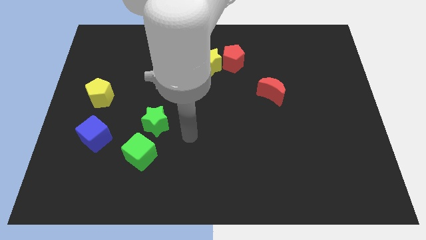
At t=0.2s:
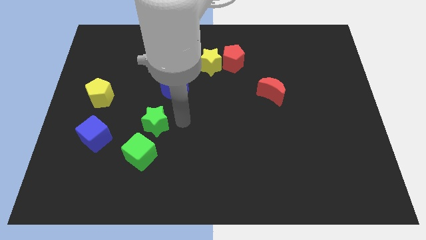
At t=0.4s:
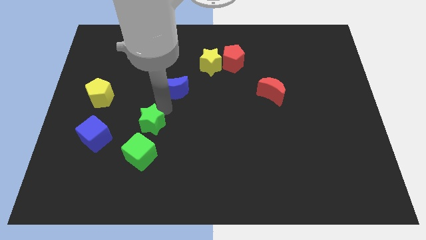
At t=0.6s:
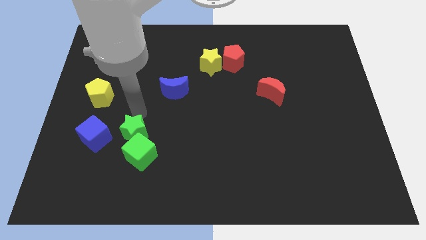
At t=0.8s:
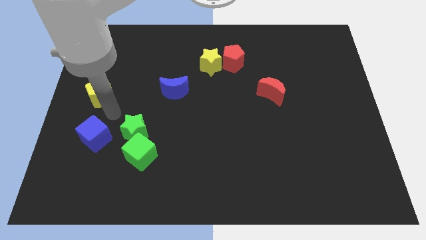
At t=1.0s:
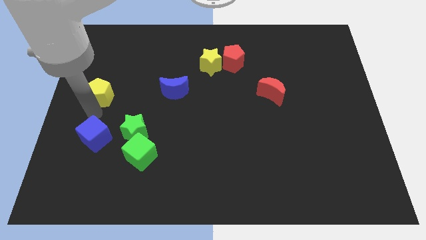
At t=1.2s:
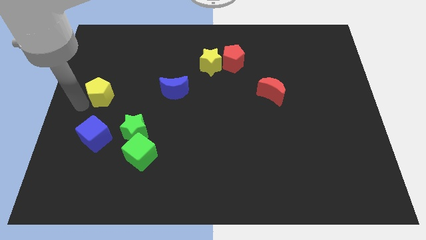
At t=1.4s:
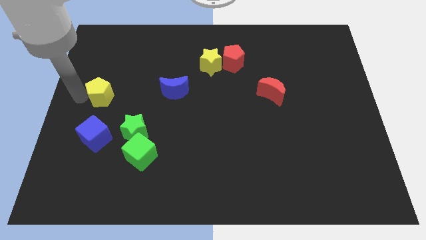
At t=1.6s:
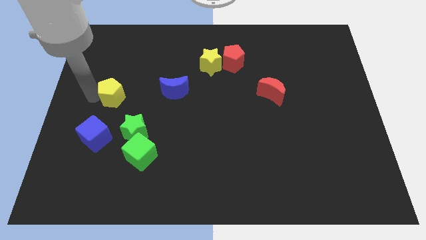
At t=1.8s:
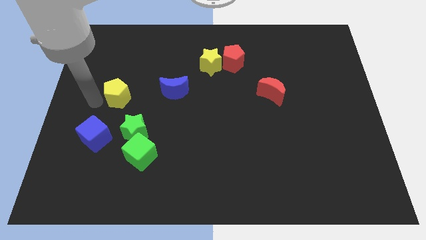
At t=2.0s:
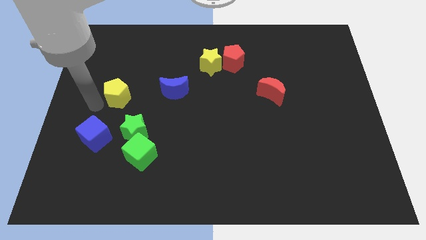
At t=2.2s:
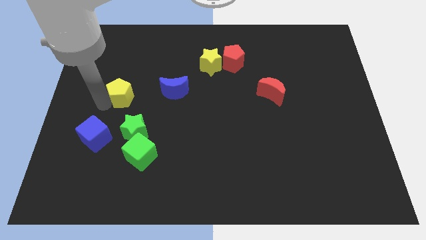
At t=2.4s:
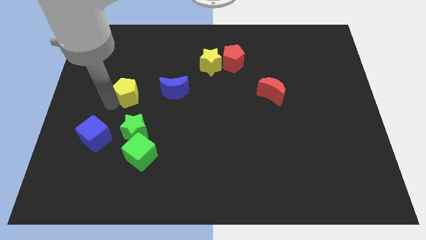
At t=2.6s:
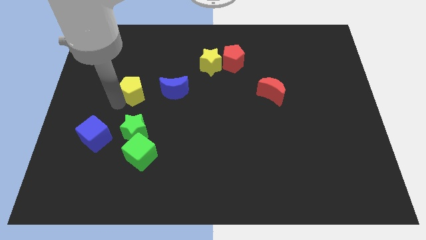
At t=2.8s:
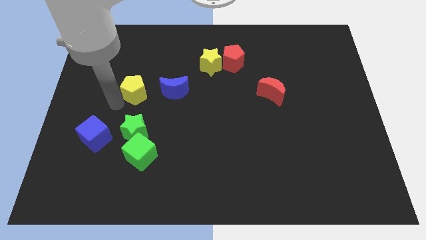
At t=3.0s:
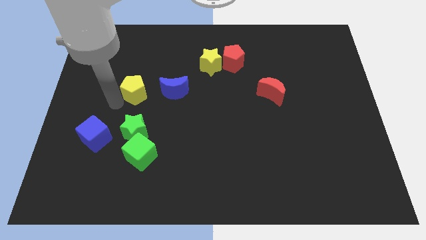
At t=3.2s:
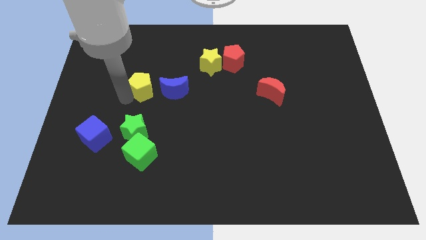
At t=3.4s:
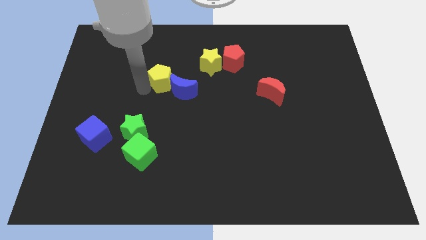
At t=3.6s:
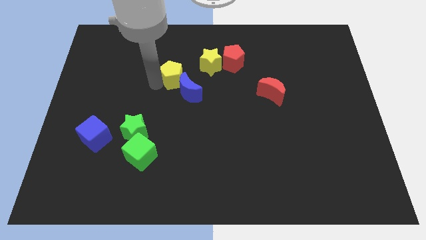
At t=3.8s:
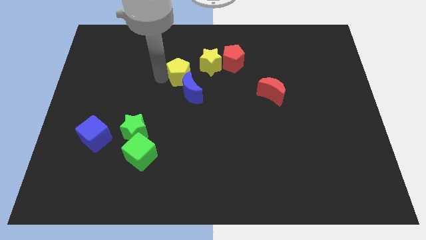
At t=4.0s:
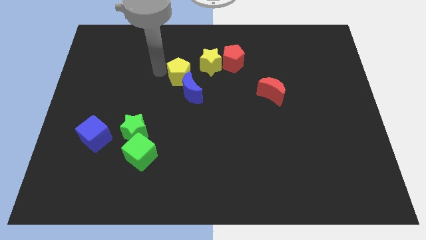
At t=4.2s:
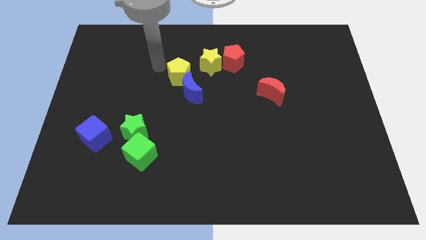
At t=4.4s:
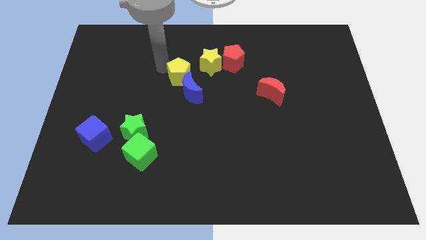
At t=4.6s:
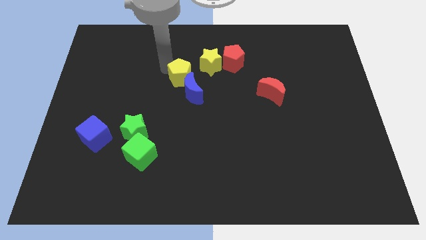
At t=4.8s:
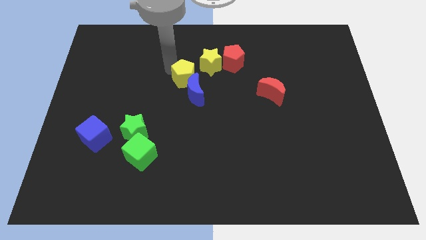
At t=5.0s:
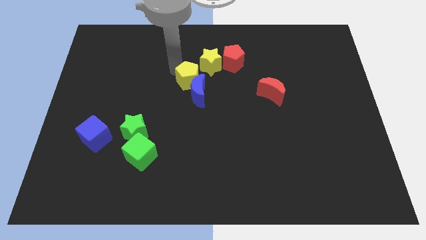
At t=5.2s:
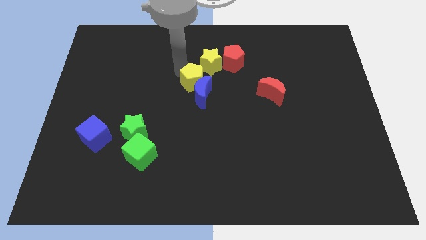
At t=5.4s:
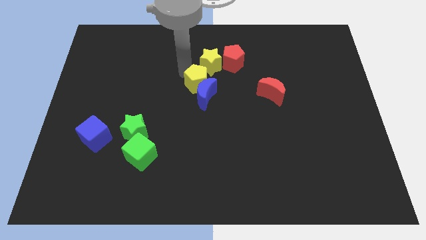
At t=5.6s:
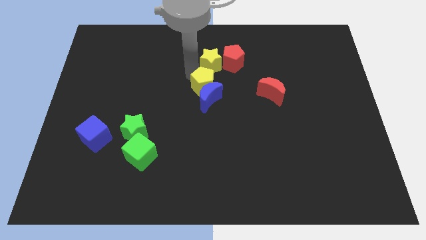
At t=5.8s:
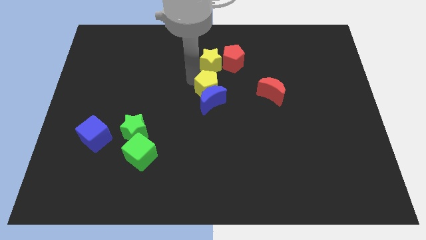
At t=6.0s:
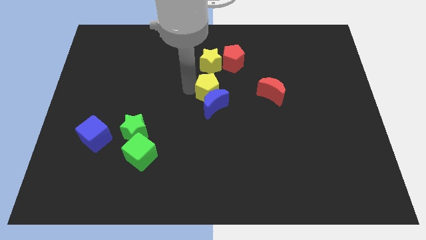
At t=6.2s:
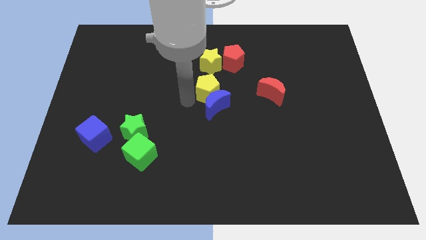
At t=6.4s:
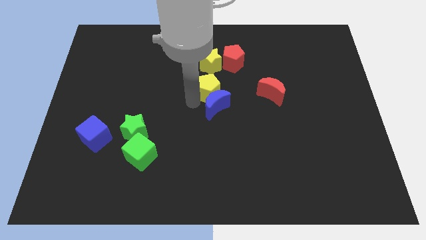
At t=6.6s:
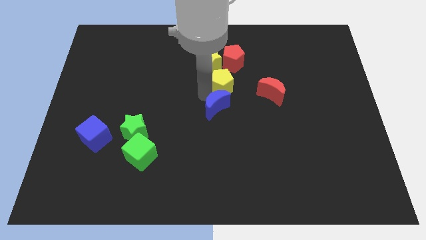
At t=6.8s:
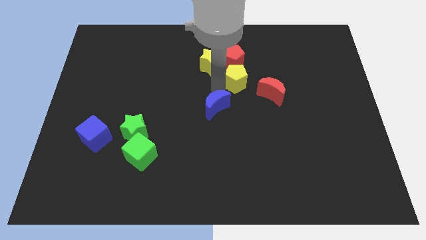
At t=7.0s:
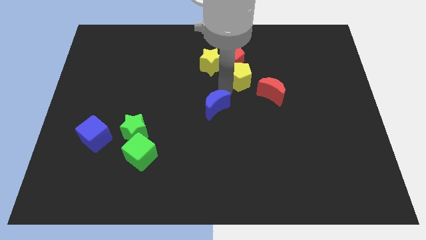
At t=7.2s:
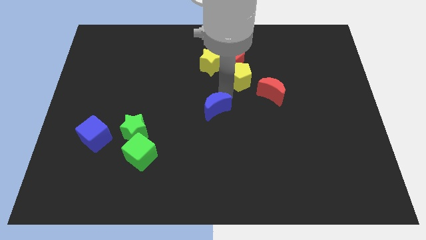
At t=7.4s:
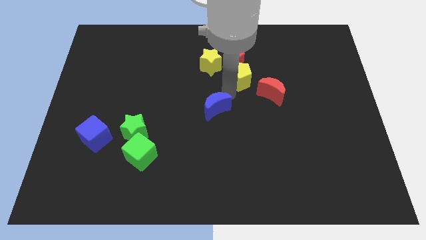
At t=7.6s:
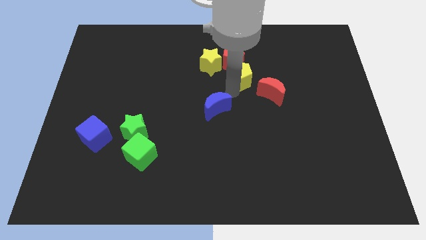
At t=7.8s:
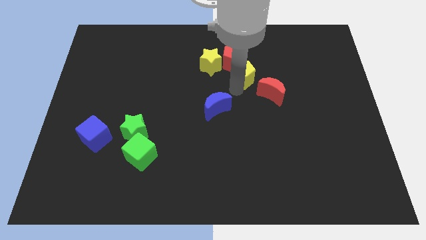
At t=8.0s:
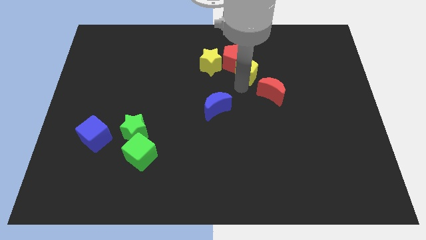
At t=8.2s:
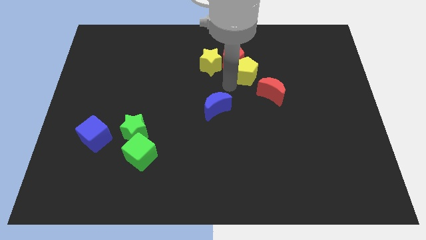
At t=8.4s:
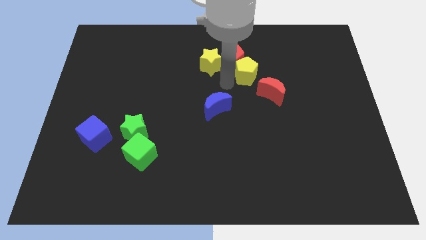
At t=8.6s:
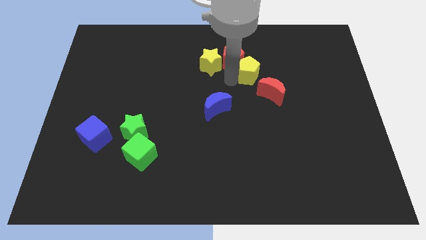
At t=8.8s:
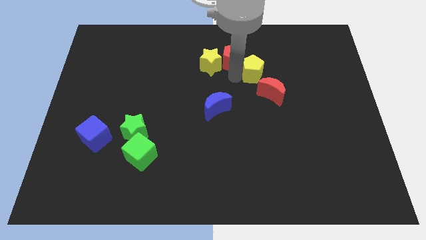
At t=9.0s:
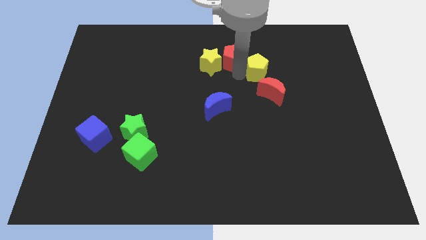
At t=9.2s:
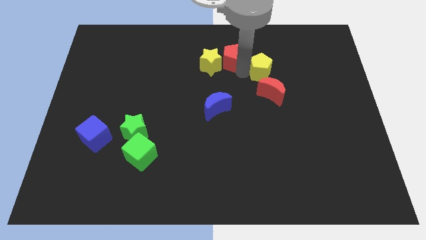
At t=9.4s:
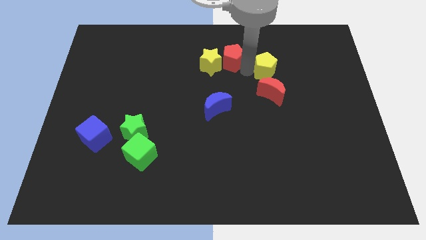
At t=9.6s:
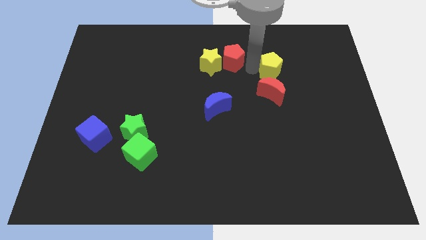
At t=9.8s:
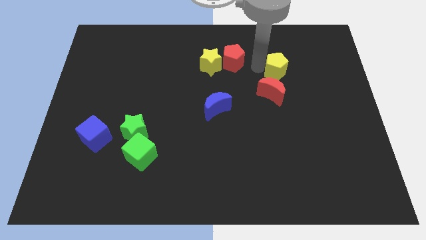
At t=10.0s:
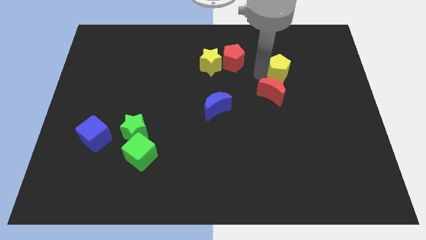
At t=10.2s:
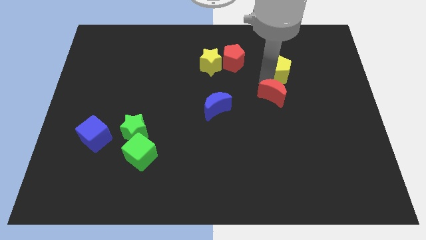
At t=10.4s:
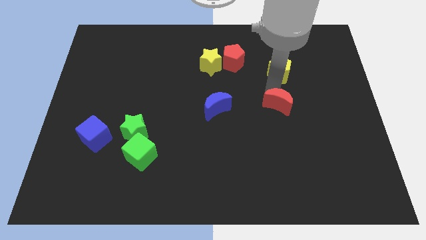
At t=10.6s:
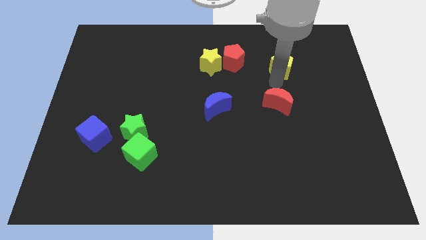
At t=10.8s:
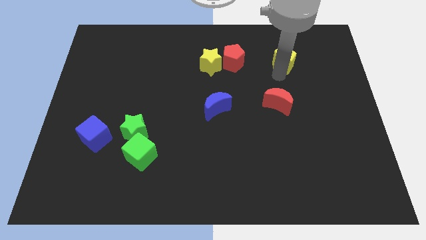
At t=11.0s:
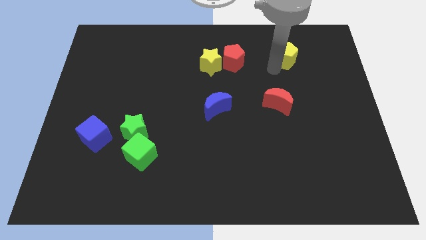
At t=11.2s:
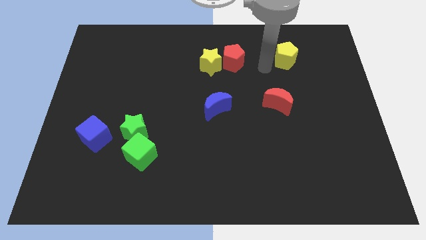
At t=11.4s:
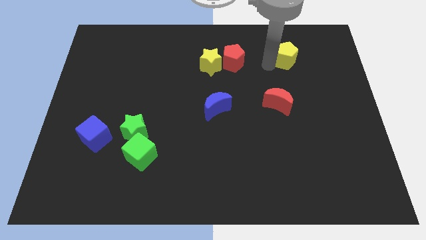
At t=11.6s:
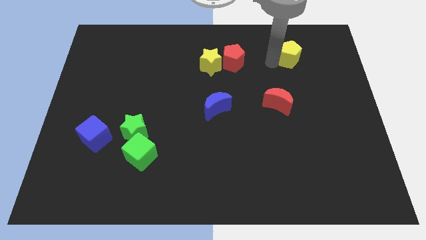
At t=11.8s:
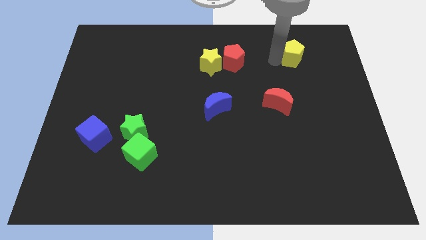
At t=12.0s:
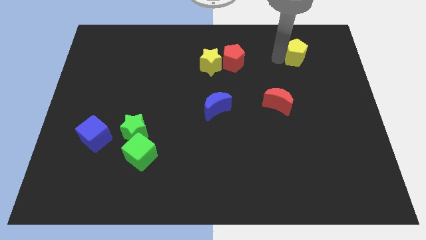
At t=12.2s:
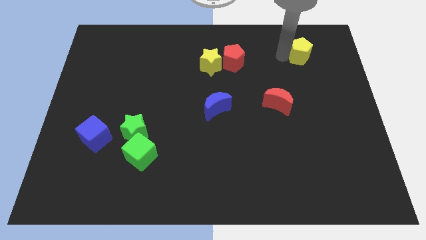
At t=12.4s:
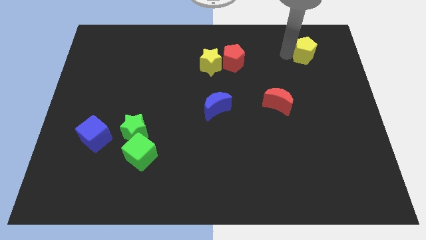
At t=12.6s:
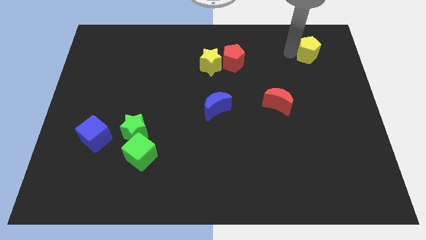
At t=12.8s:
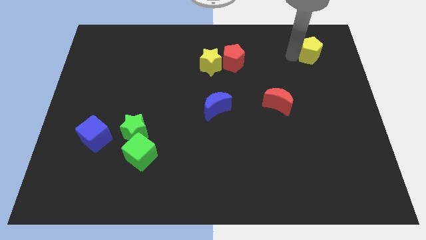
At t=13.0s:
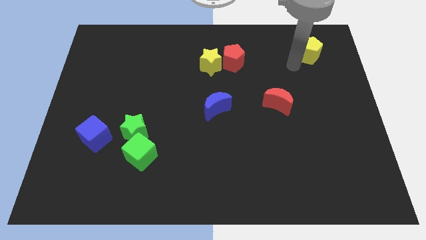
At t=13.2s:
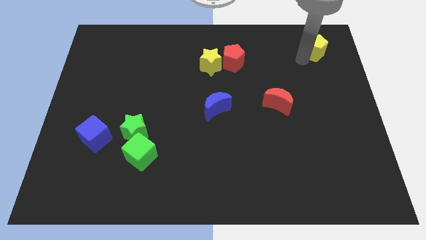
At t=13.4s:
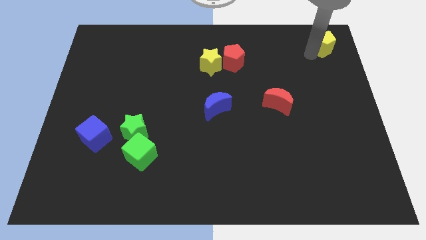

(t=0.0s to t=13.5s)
slide the yellow pentagon to the upper right corner
